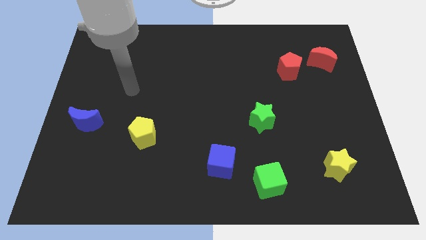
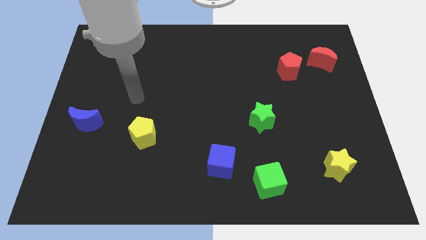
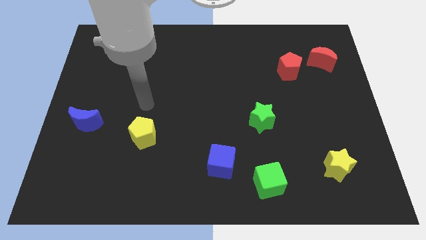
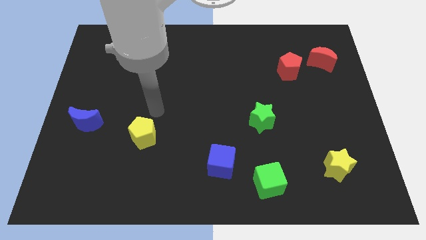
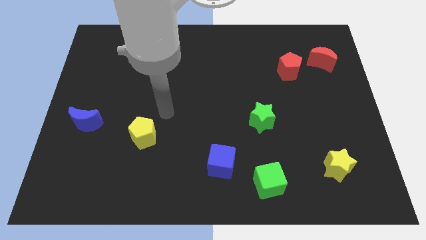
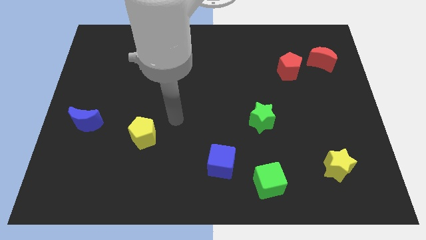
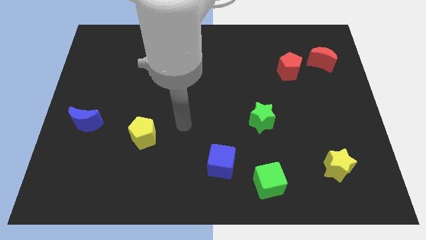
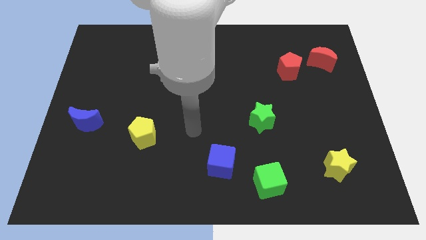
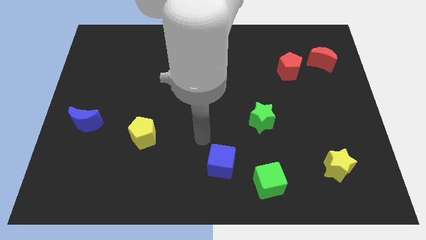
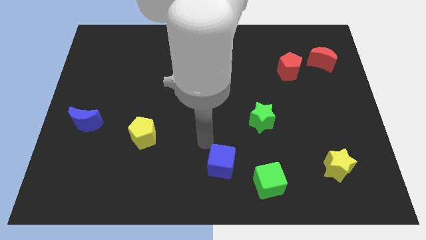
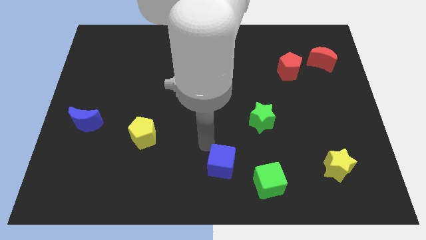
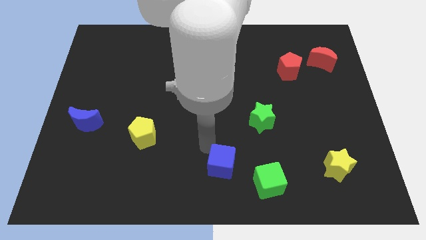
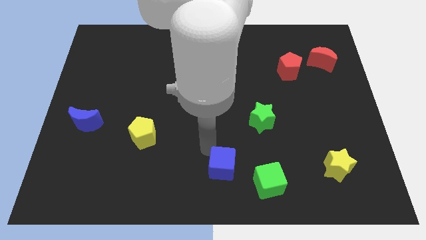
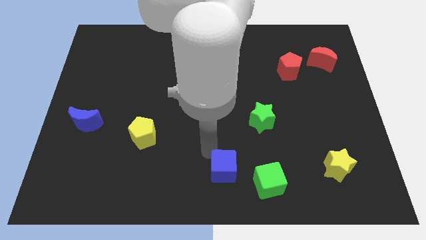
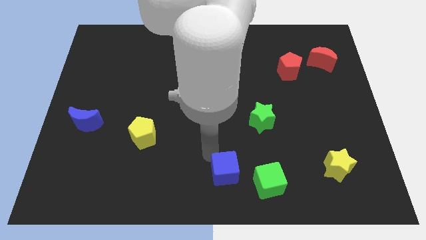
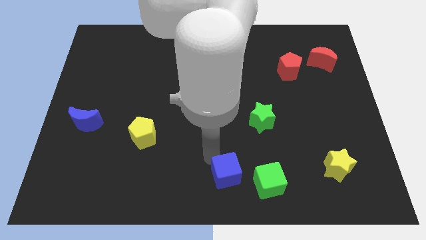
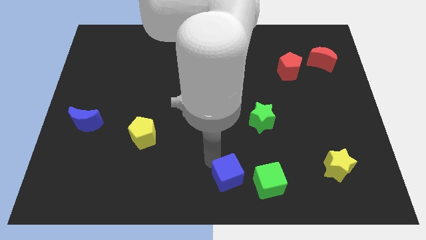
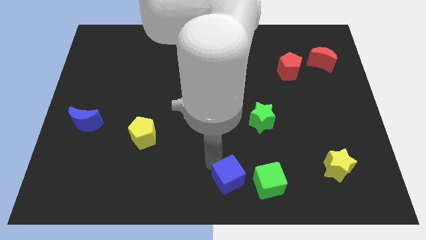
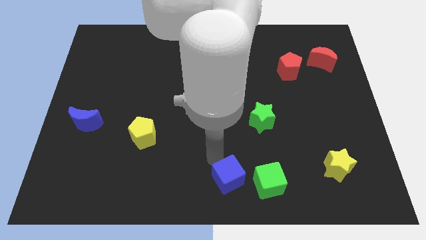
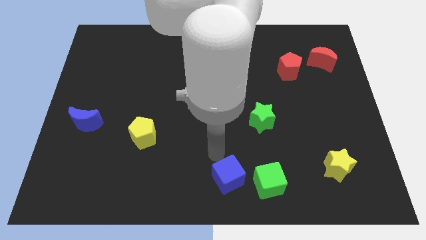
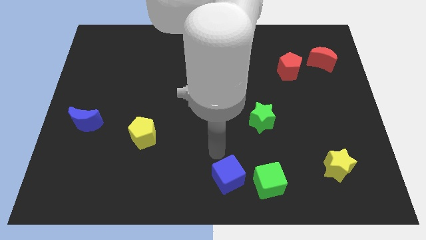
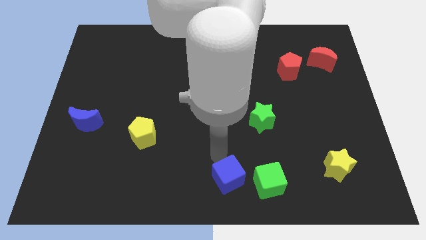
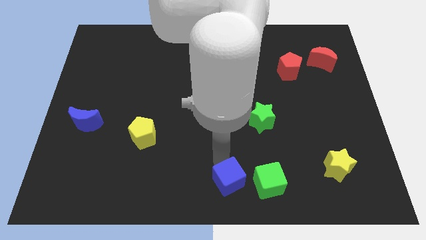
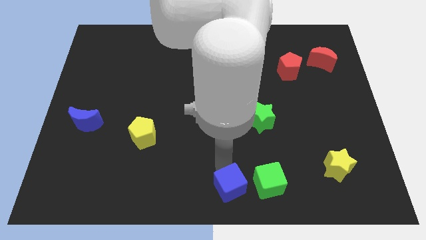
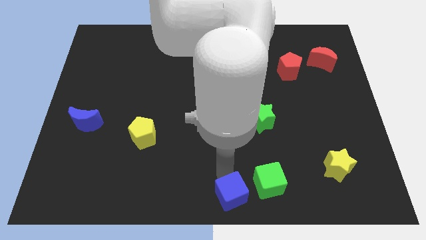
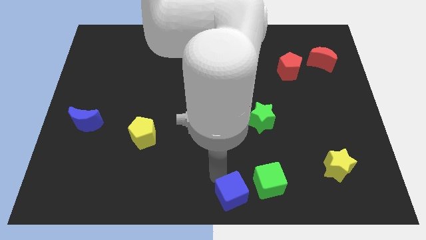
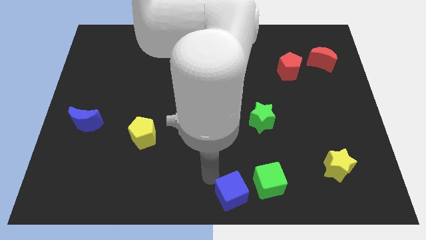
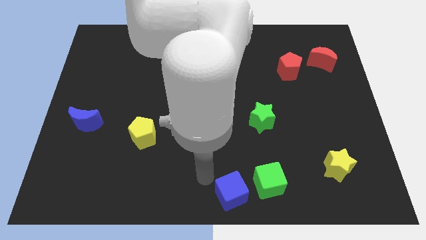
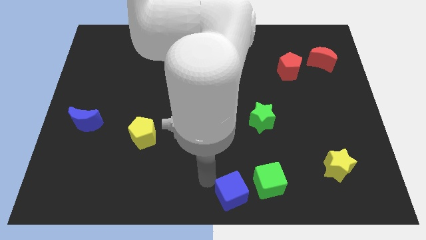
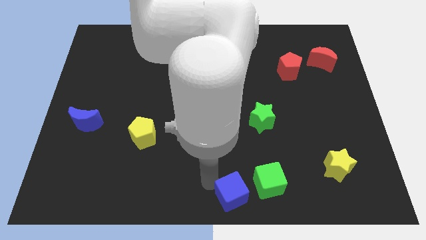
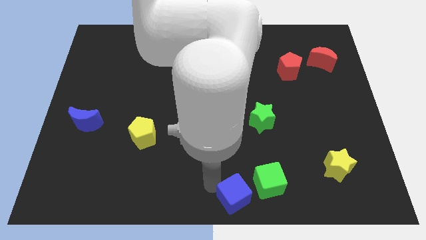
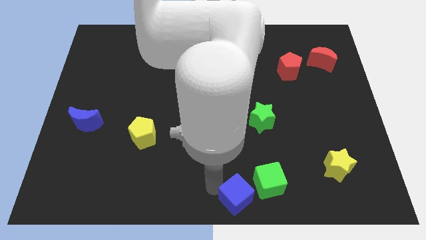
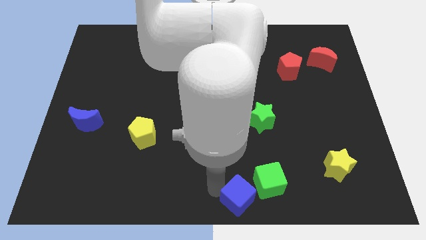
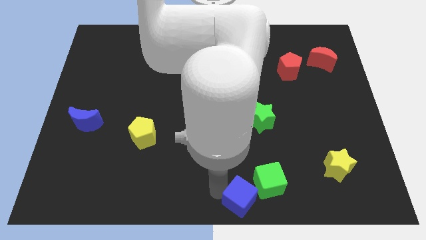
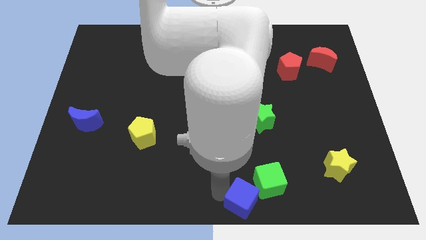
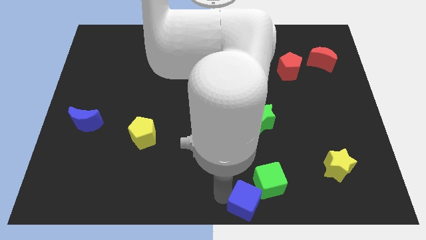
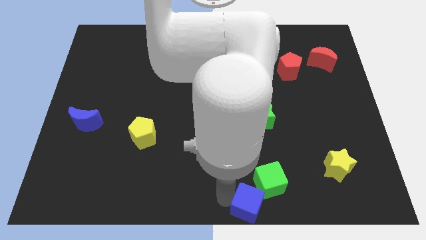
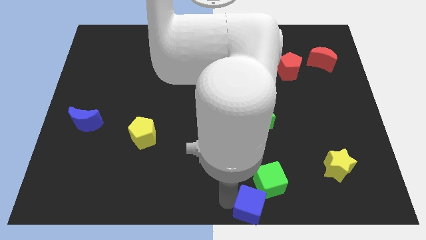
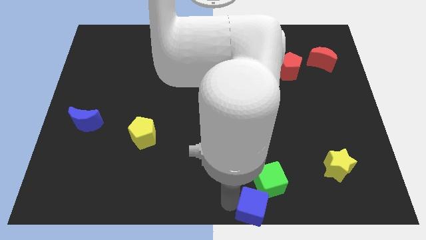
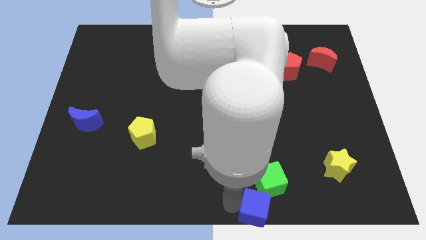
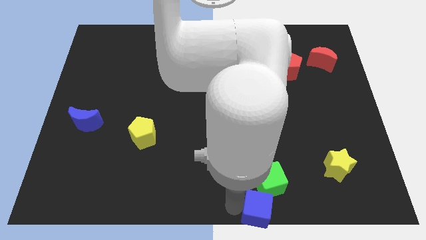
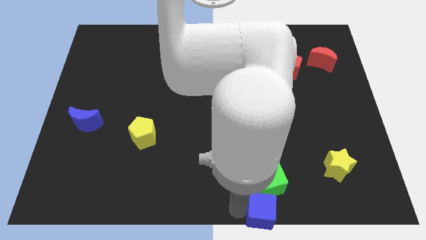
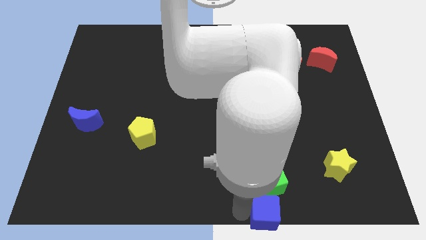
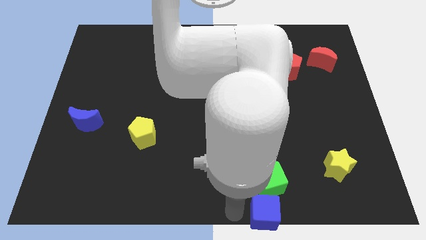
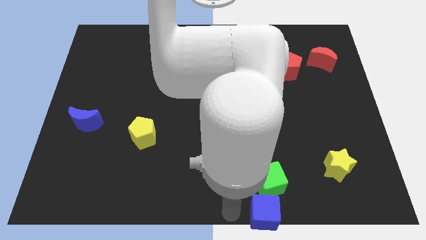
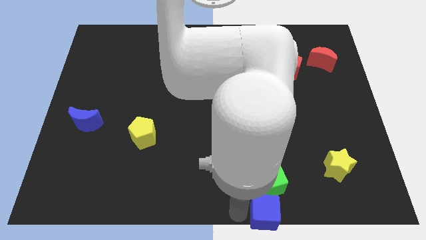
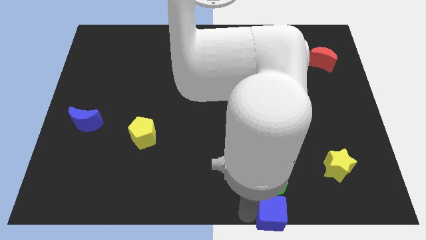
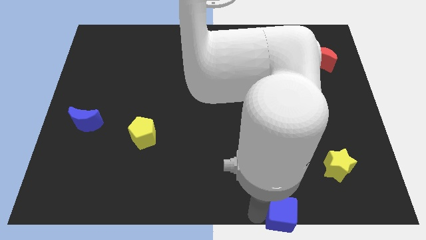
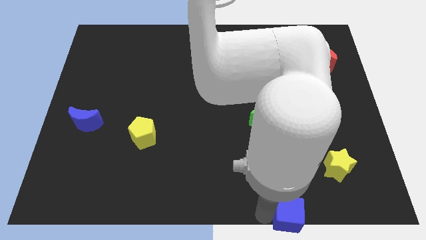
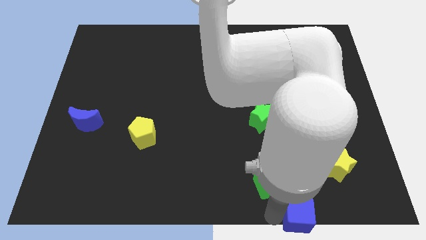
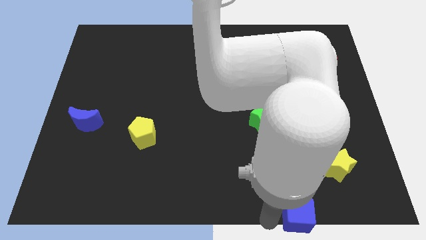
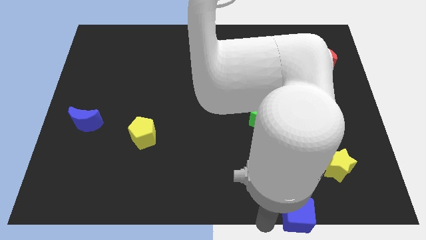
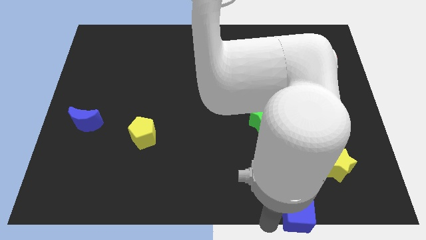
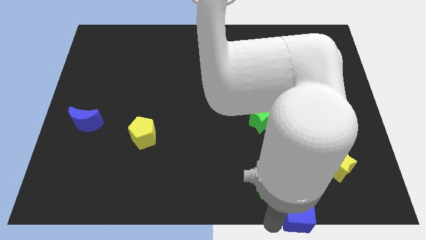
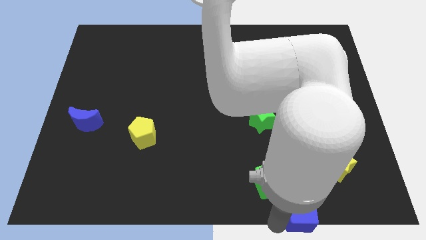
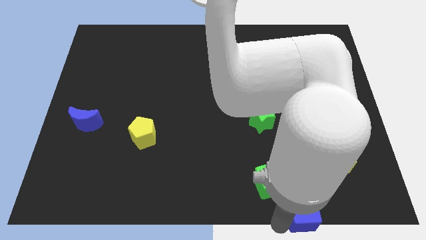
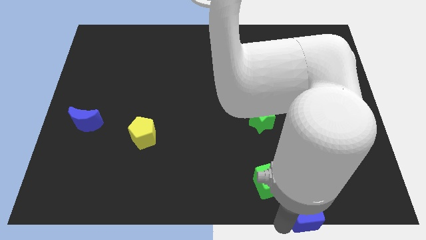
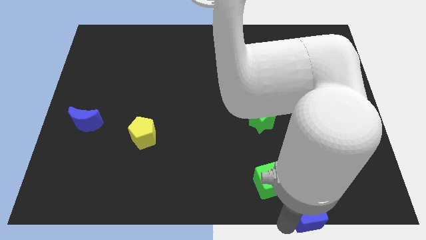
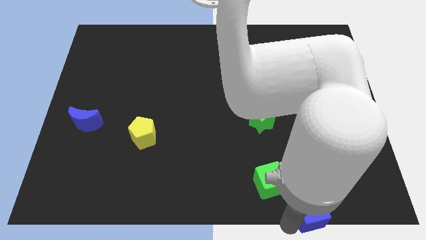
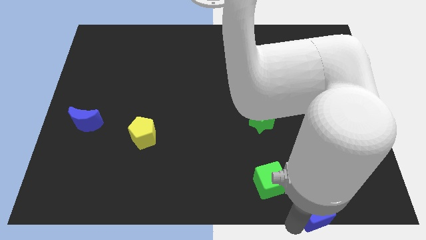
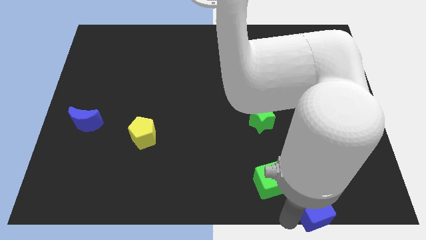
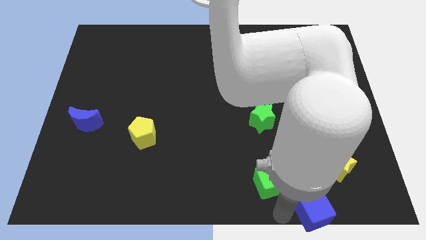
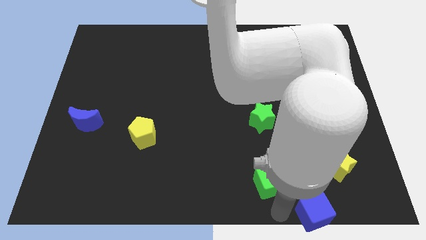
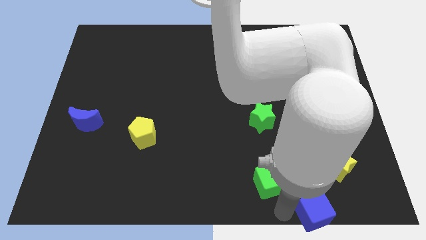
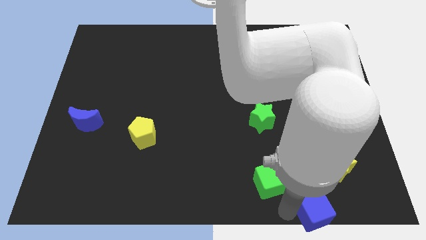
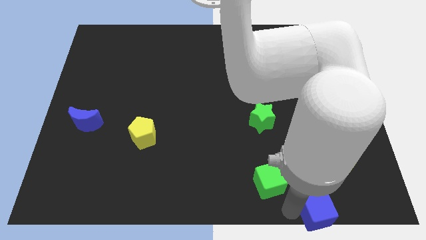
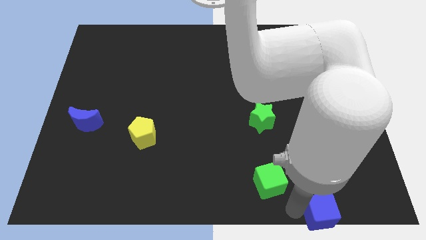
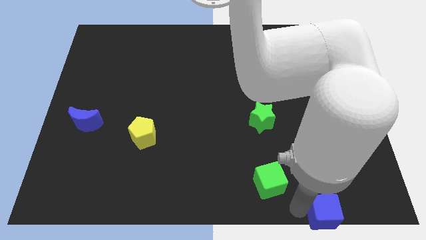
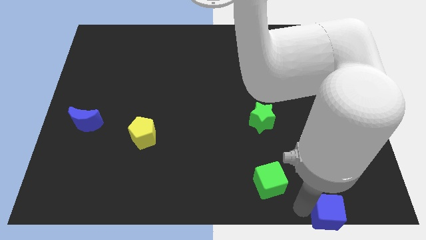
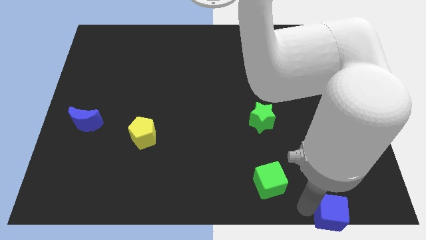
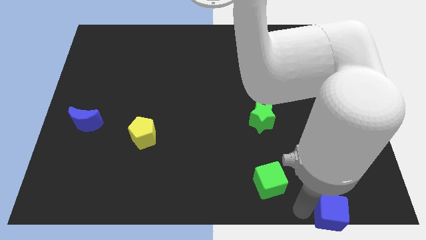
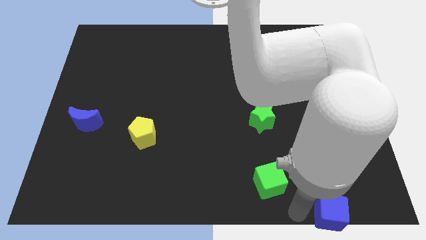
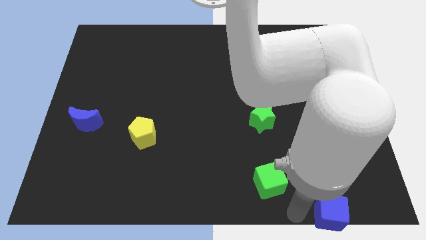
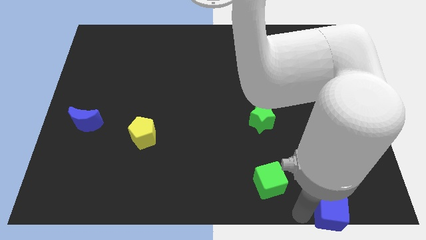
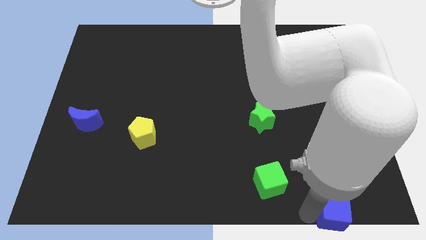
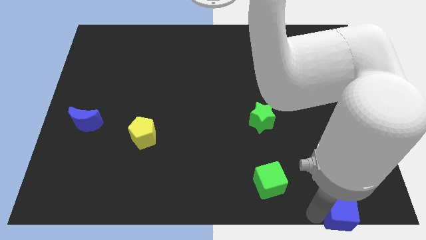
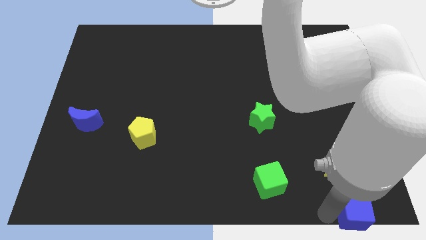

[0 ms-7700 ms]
move the blue cube to the lower right corner
